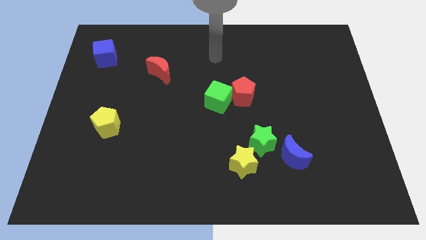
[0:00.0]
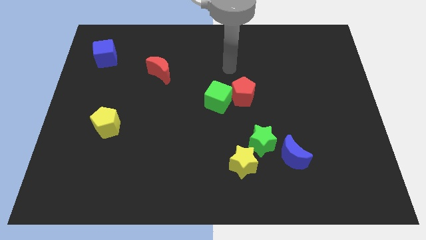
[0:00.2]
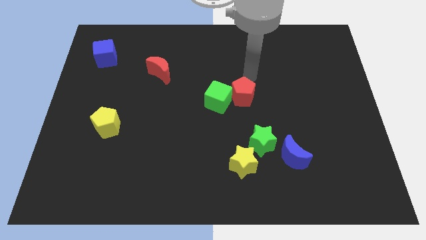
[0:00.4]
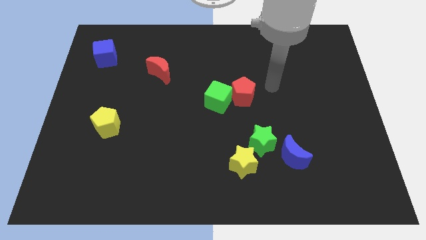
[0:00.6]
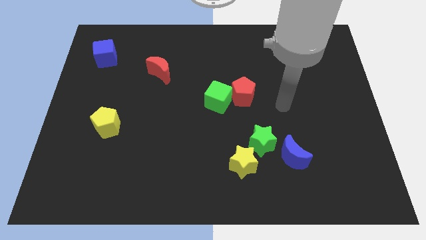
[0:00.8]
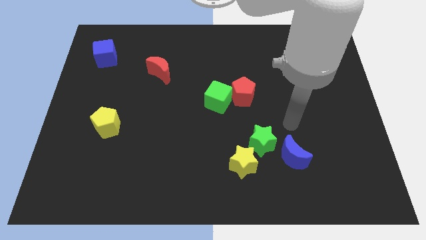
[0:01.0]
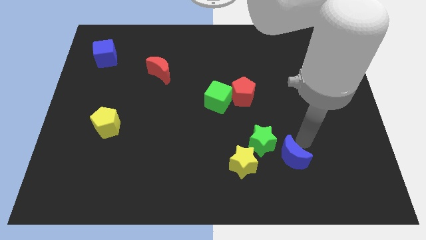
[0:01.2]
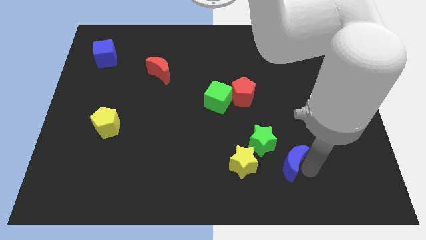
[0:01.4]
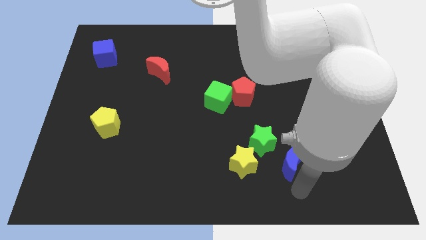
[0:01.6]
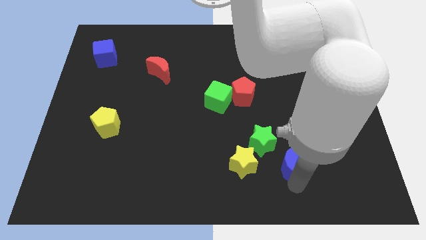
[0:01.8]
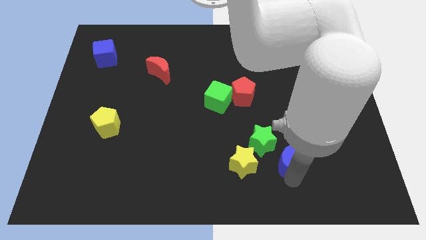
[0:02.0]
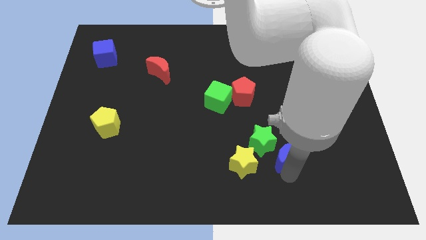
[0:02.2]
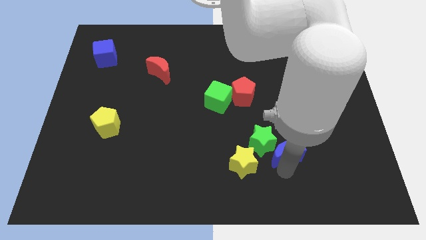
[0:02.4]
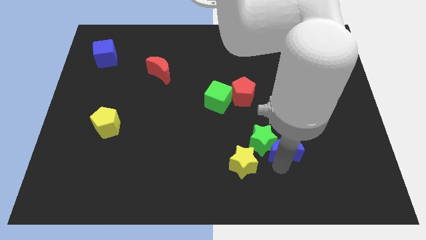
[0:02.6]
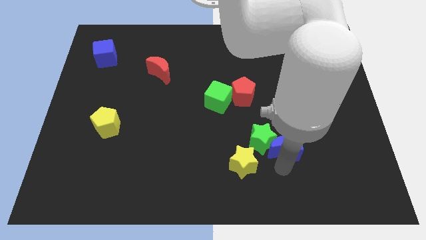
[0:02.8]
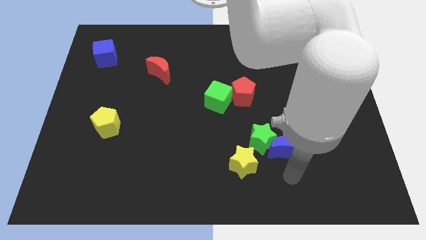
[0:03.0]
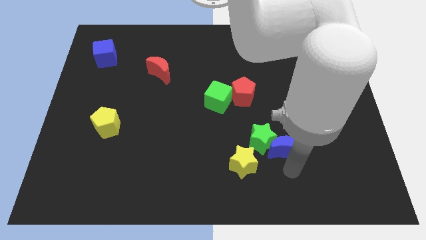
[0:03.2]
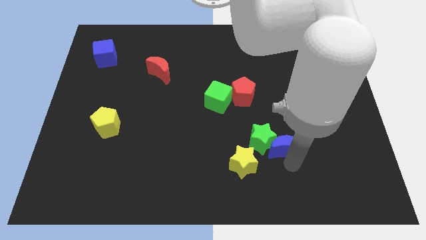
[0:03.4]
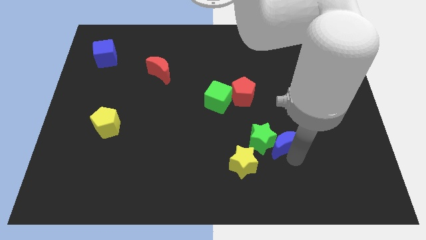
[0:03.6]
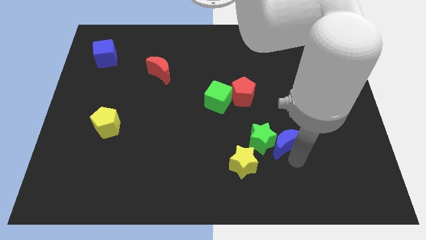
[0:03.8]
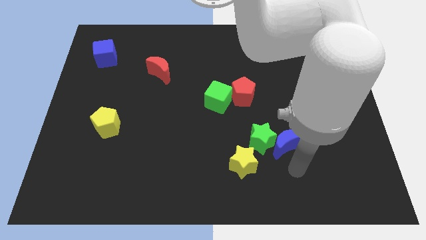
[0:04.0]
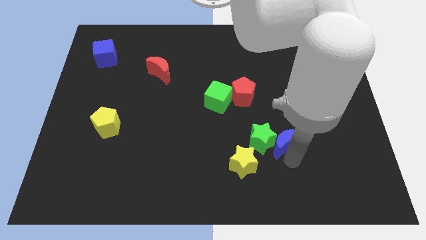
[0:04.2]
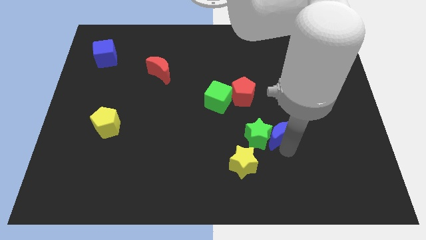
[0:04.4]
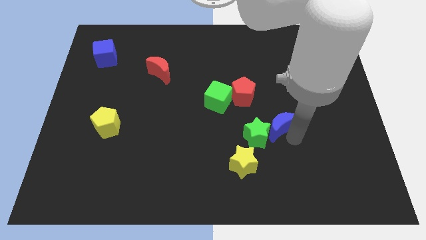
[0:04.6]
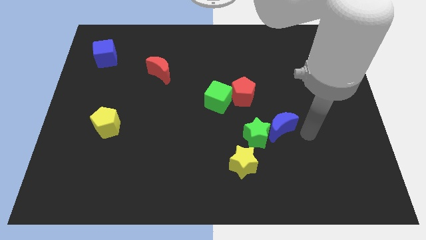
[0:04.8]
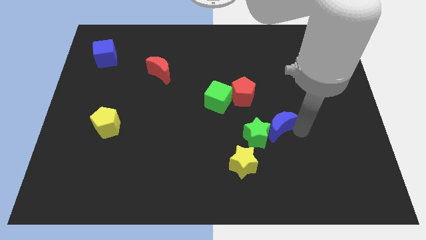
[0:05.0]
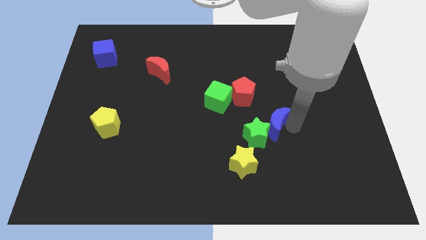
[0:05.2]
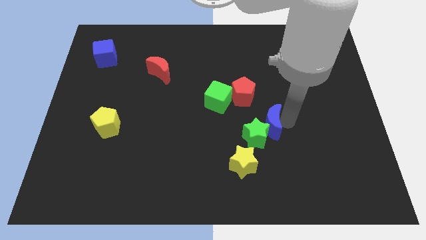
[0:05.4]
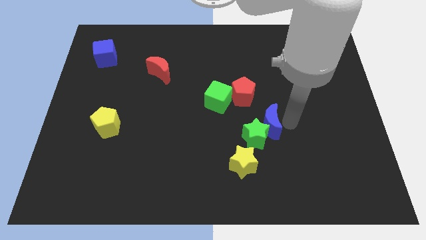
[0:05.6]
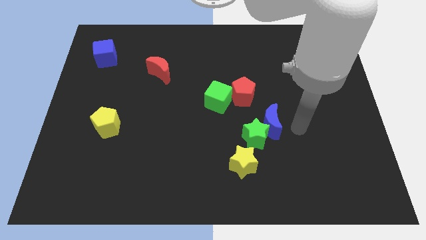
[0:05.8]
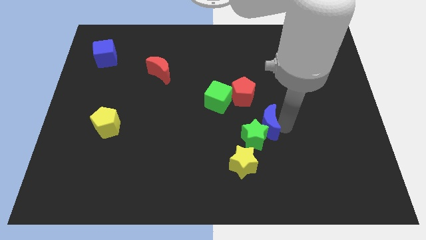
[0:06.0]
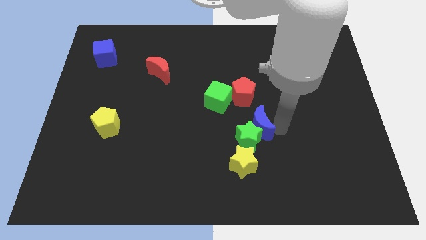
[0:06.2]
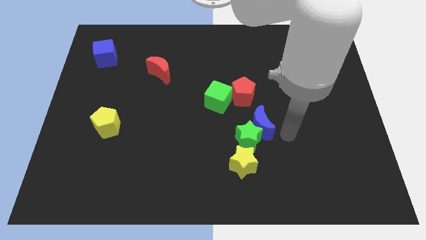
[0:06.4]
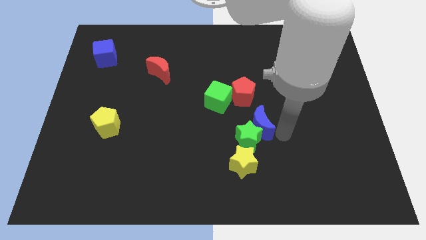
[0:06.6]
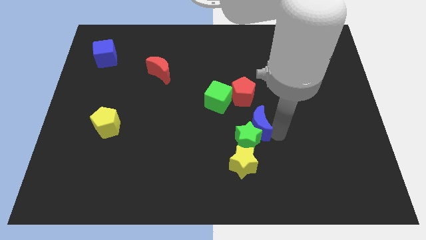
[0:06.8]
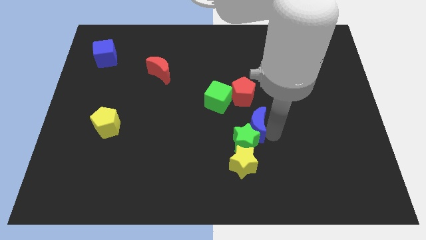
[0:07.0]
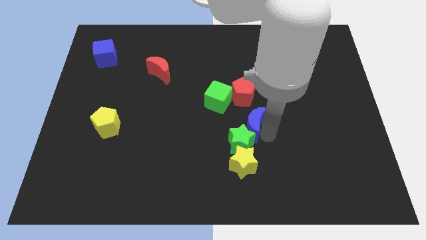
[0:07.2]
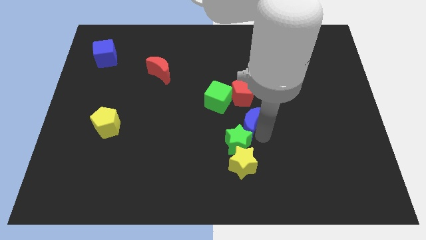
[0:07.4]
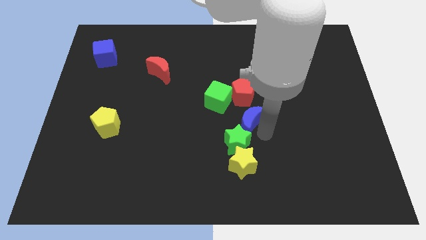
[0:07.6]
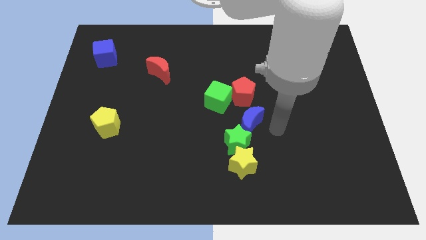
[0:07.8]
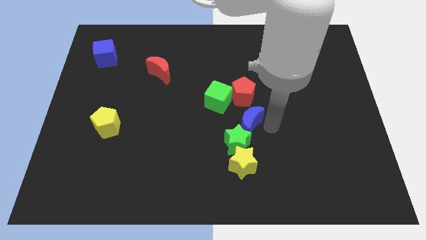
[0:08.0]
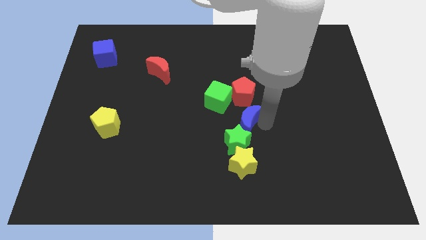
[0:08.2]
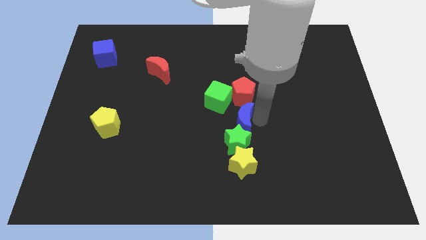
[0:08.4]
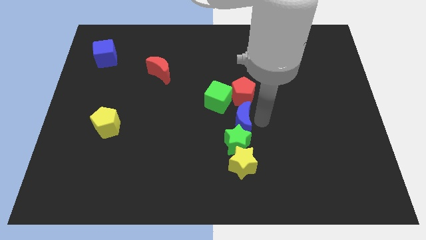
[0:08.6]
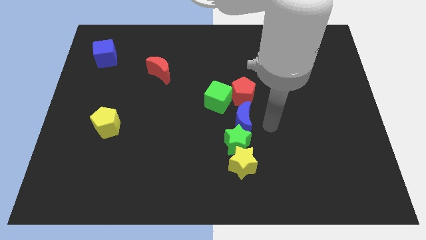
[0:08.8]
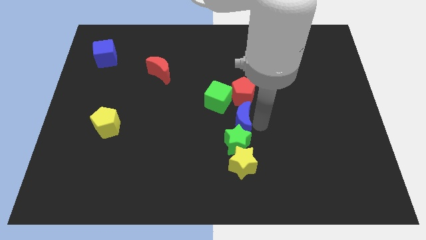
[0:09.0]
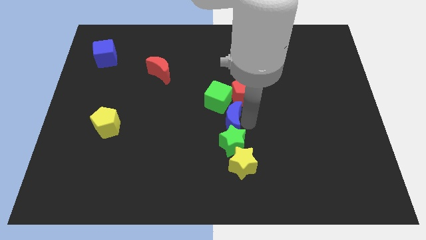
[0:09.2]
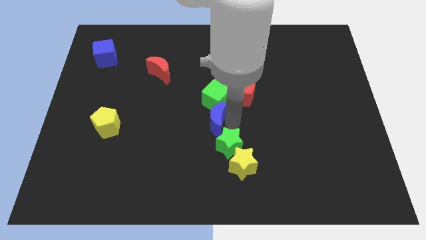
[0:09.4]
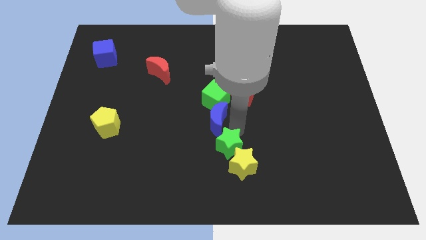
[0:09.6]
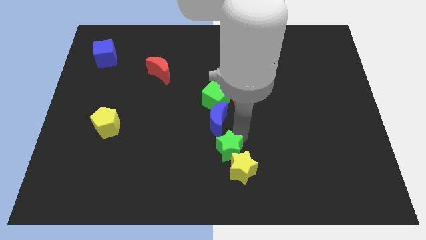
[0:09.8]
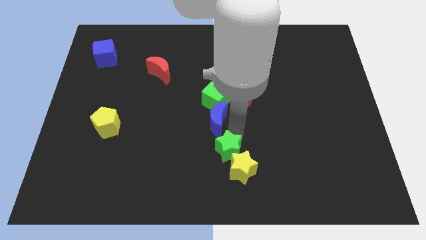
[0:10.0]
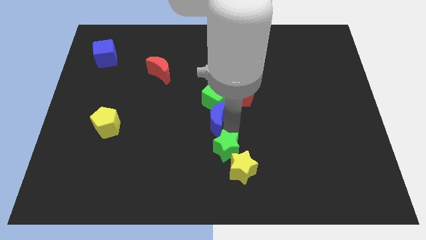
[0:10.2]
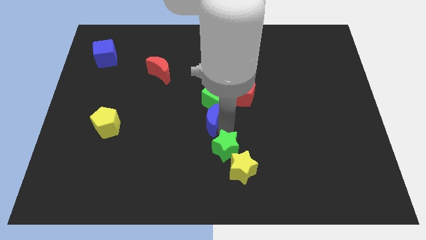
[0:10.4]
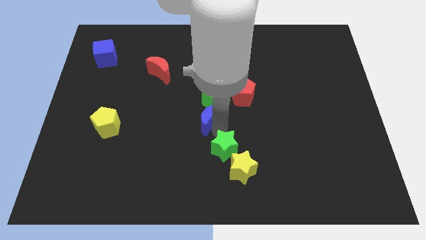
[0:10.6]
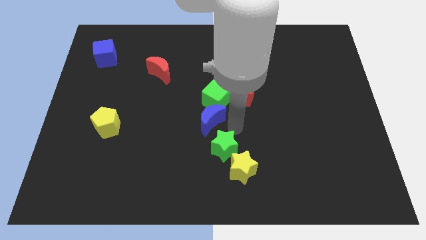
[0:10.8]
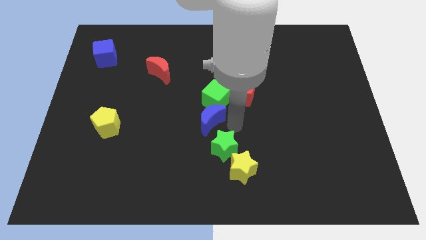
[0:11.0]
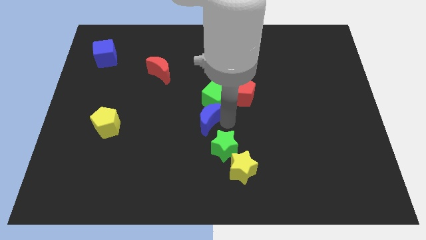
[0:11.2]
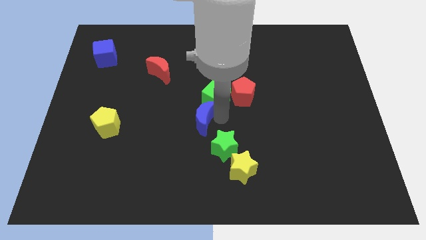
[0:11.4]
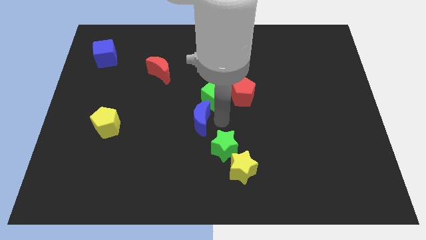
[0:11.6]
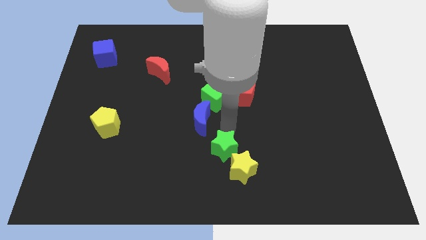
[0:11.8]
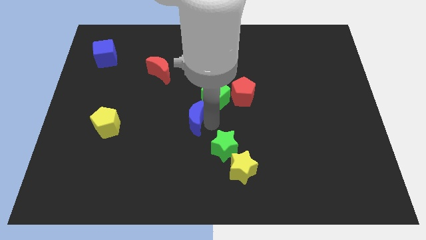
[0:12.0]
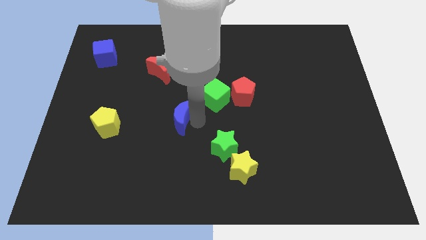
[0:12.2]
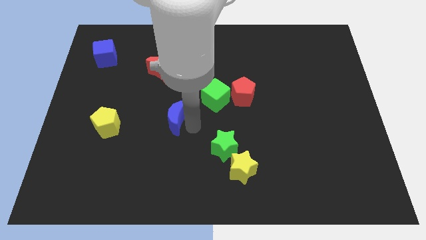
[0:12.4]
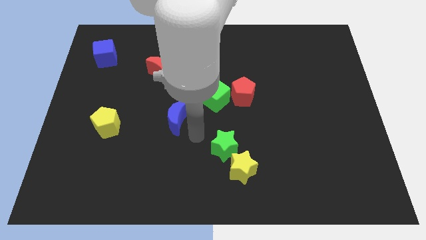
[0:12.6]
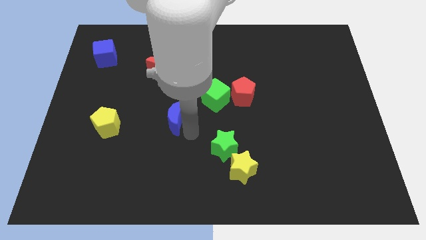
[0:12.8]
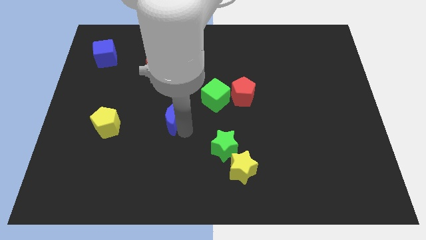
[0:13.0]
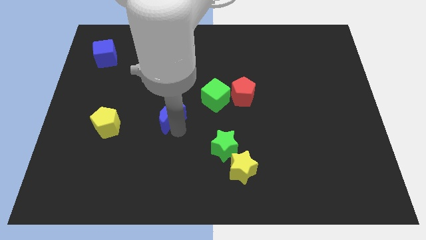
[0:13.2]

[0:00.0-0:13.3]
put the blue moon to the bottom side of the red moon

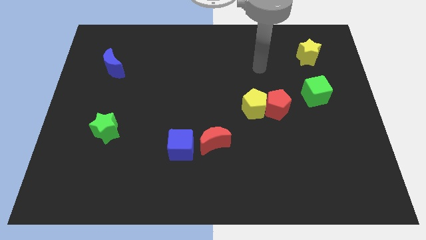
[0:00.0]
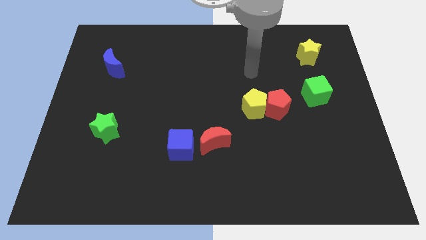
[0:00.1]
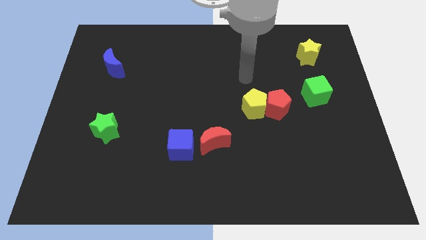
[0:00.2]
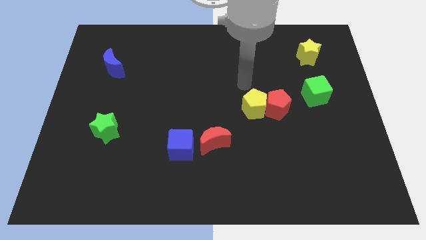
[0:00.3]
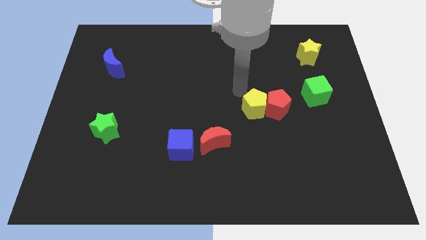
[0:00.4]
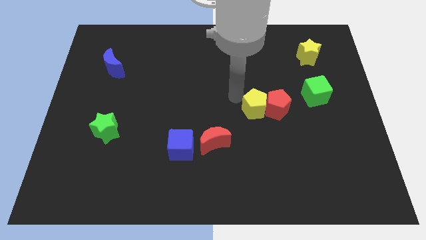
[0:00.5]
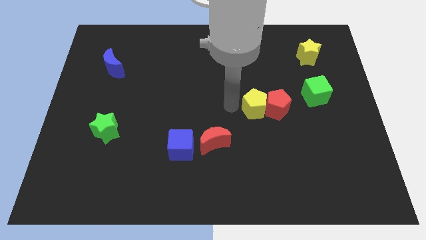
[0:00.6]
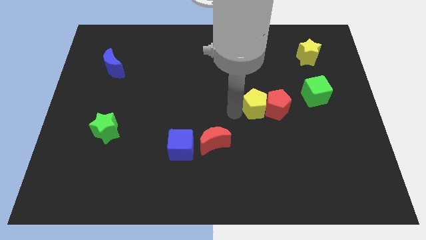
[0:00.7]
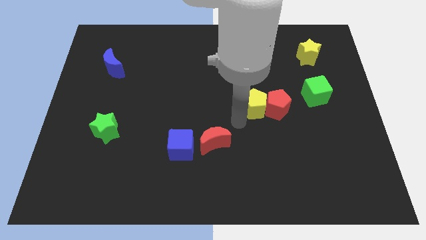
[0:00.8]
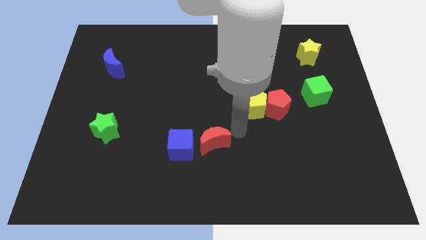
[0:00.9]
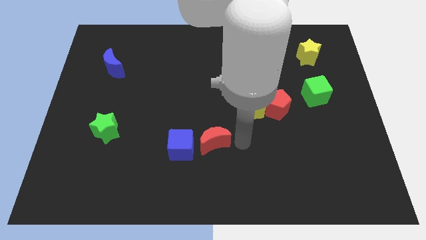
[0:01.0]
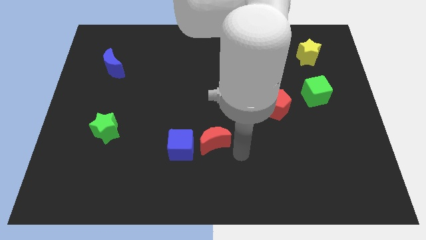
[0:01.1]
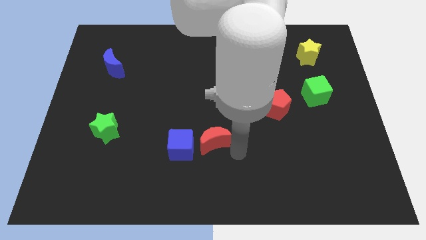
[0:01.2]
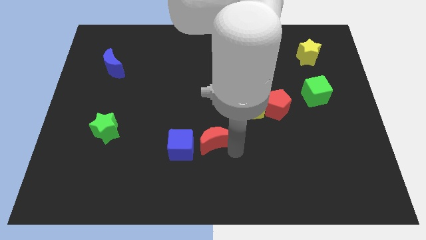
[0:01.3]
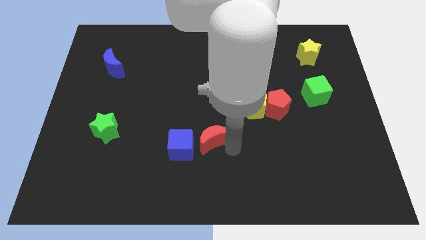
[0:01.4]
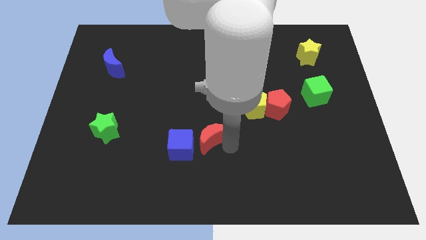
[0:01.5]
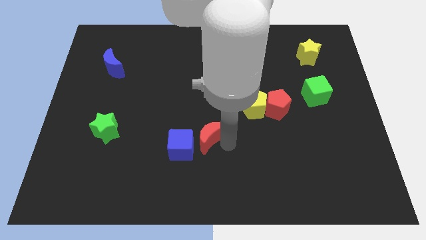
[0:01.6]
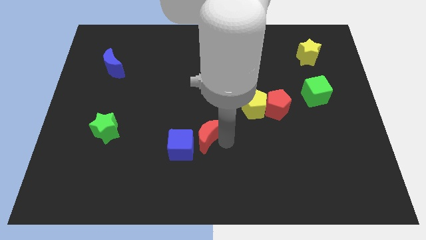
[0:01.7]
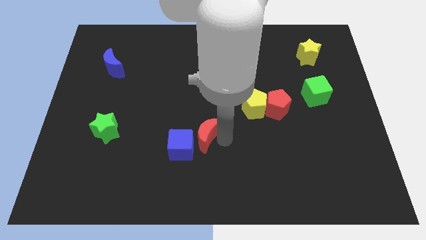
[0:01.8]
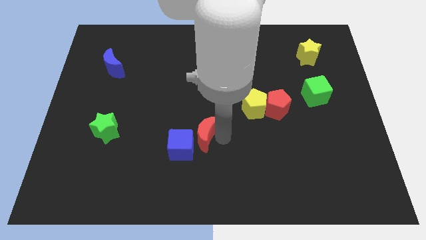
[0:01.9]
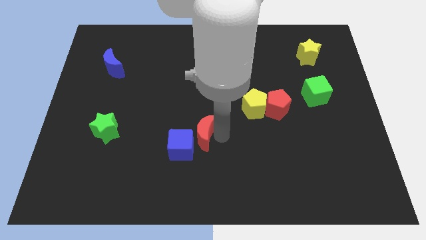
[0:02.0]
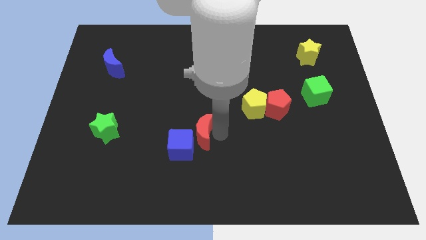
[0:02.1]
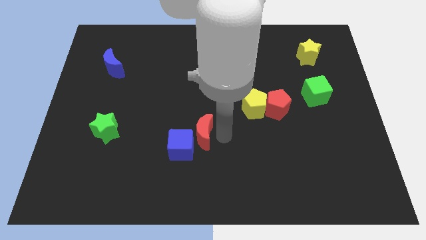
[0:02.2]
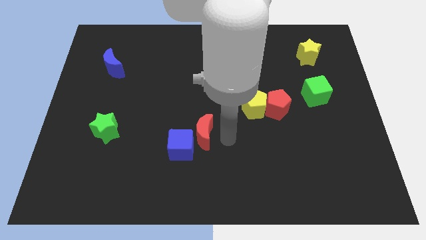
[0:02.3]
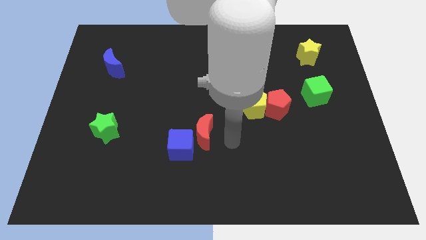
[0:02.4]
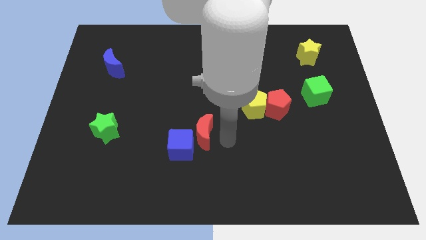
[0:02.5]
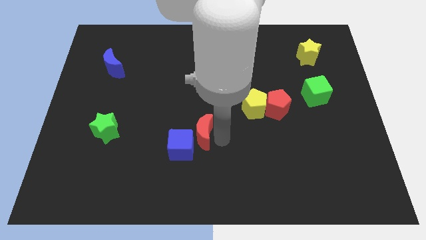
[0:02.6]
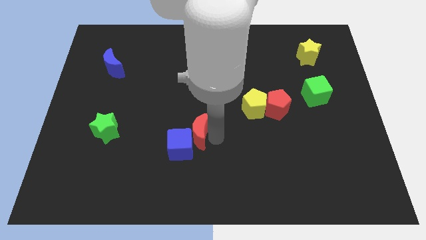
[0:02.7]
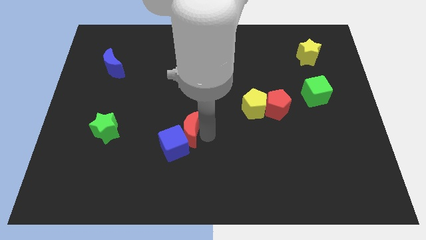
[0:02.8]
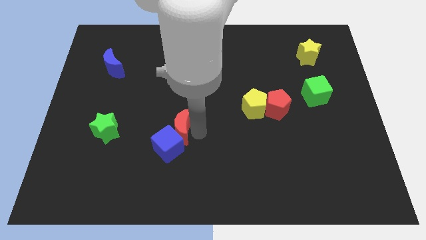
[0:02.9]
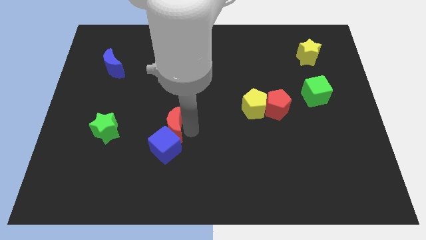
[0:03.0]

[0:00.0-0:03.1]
move the red moon to the right of the green star
